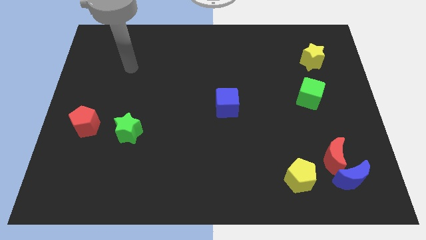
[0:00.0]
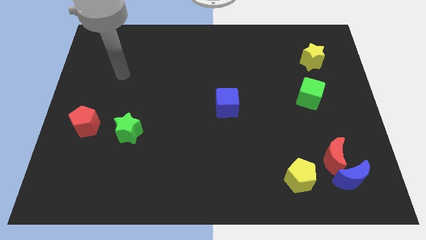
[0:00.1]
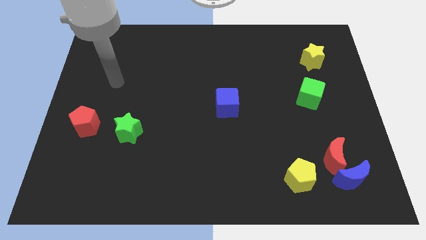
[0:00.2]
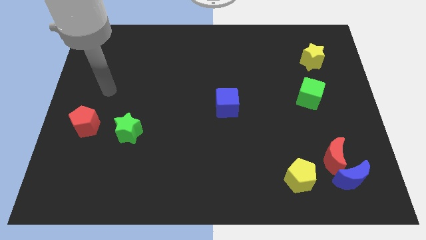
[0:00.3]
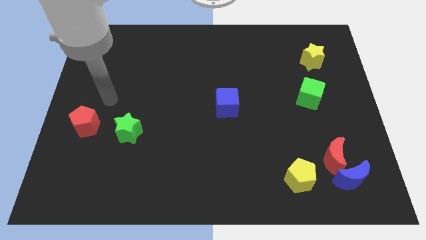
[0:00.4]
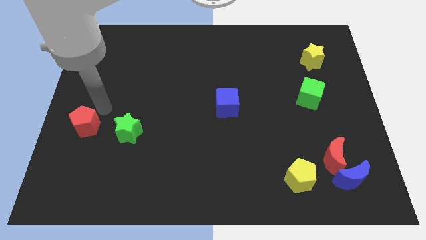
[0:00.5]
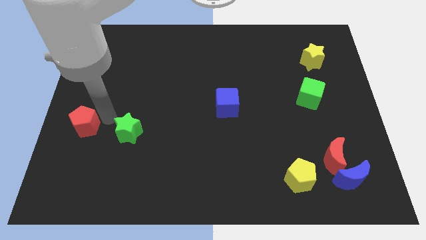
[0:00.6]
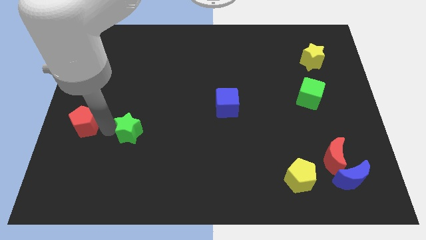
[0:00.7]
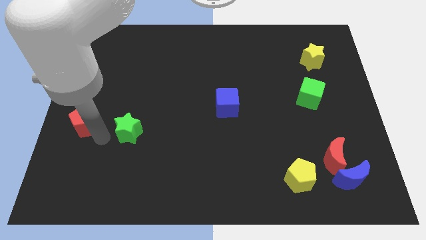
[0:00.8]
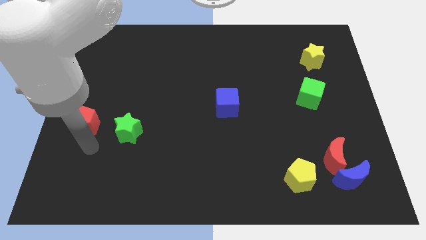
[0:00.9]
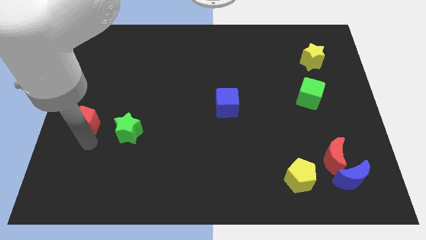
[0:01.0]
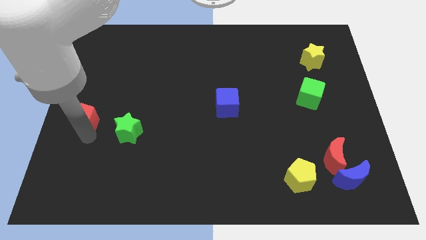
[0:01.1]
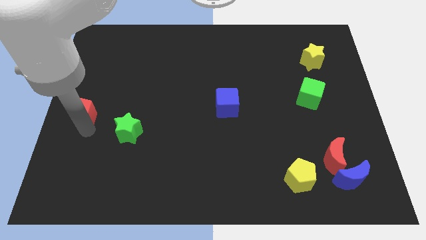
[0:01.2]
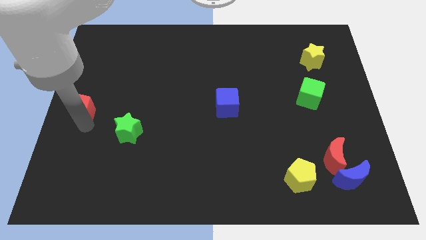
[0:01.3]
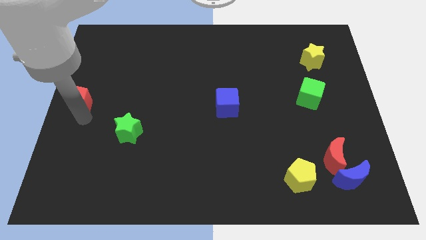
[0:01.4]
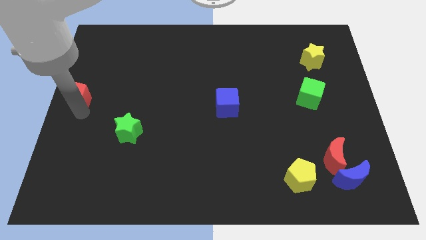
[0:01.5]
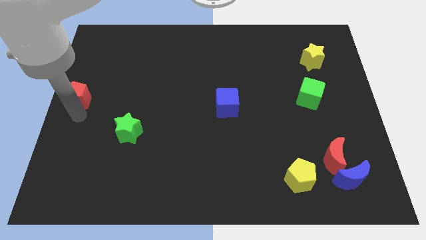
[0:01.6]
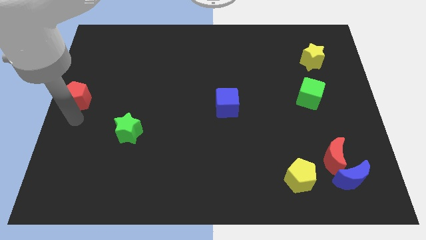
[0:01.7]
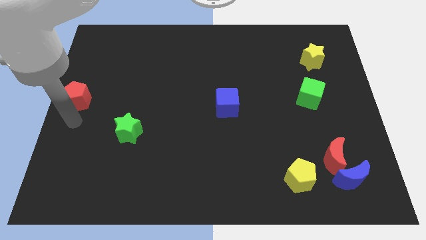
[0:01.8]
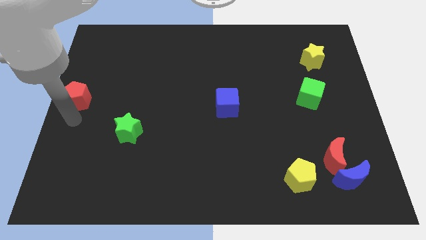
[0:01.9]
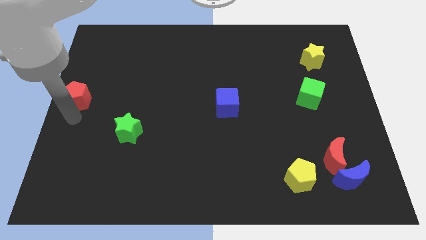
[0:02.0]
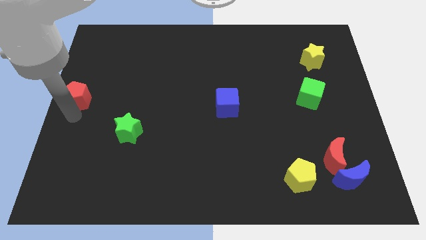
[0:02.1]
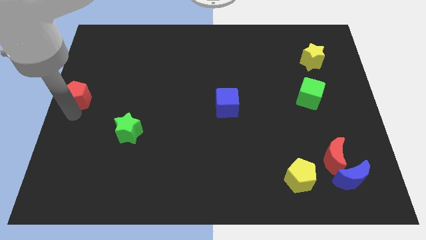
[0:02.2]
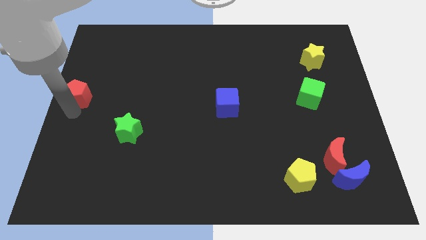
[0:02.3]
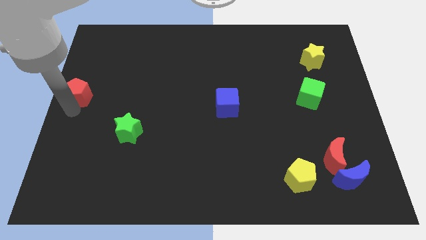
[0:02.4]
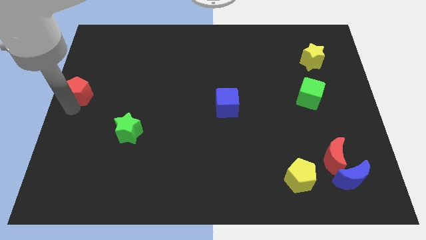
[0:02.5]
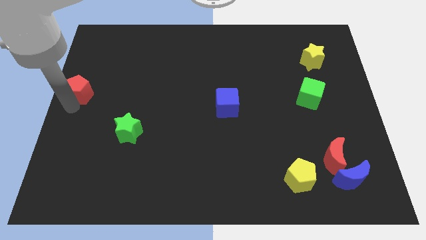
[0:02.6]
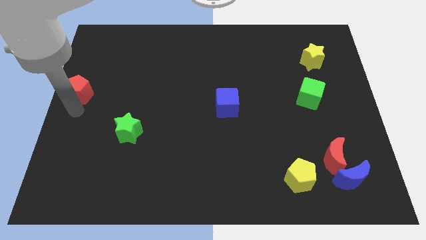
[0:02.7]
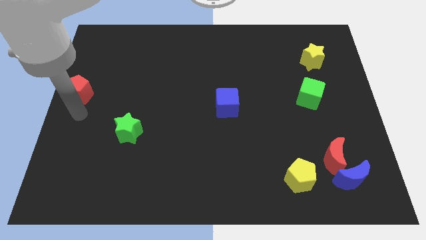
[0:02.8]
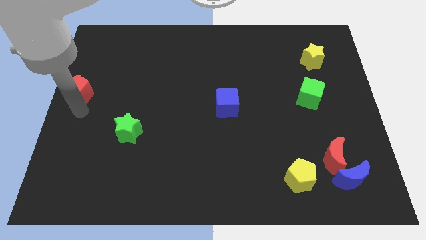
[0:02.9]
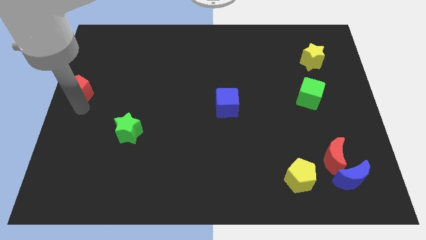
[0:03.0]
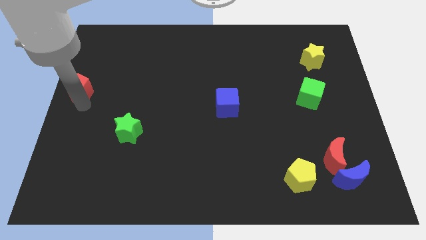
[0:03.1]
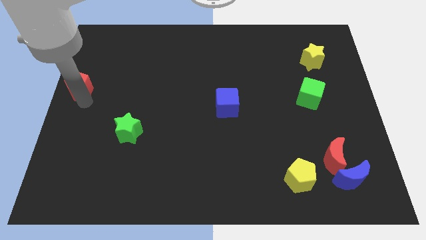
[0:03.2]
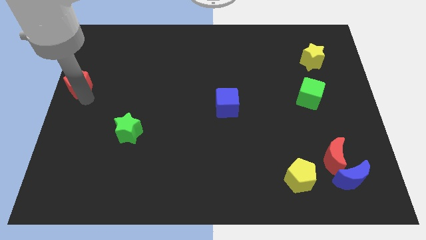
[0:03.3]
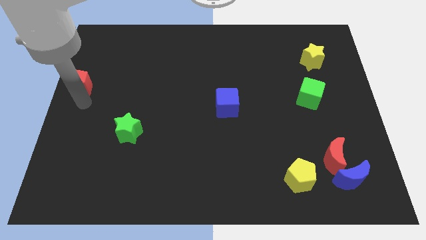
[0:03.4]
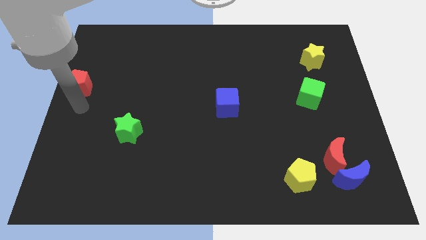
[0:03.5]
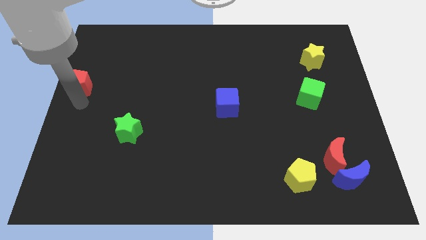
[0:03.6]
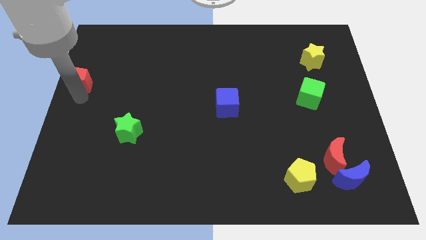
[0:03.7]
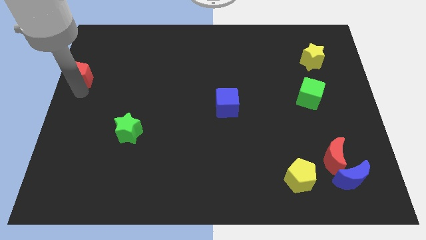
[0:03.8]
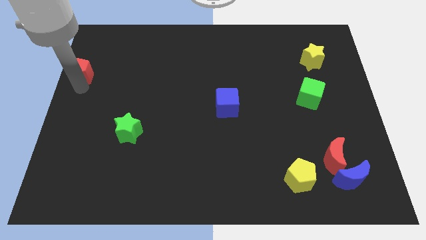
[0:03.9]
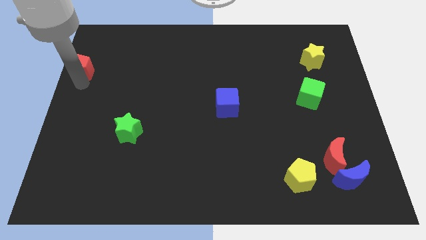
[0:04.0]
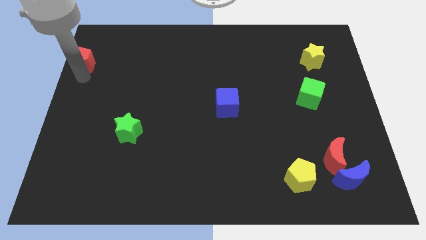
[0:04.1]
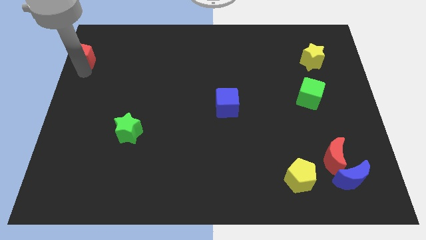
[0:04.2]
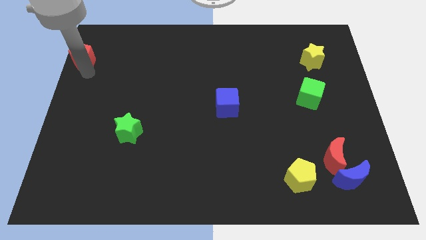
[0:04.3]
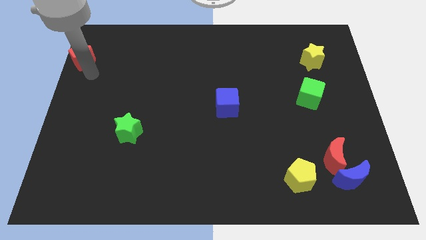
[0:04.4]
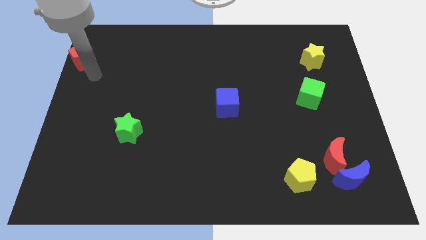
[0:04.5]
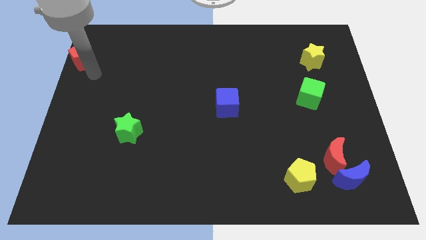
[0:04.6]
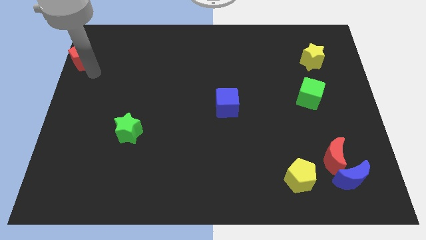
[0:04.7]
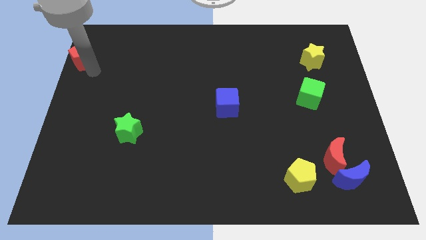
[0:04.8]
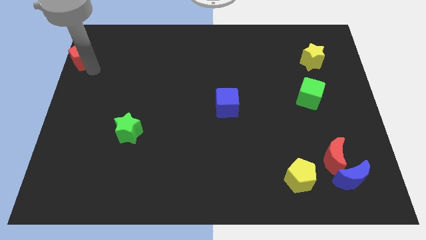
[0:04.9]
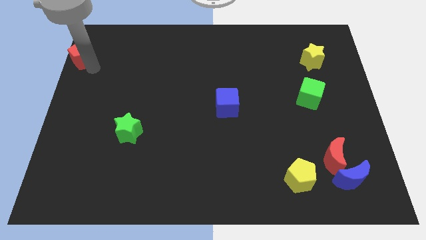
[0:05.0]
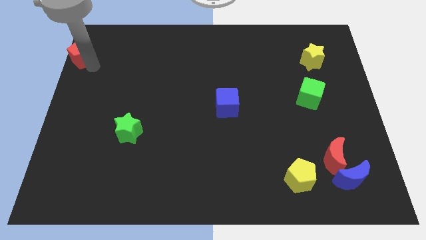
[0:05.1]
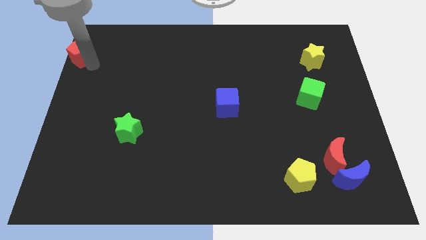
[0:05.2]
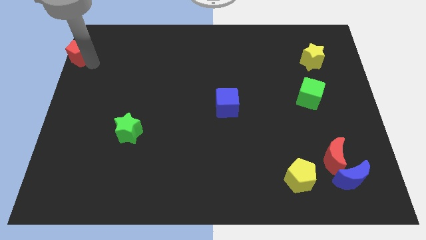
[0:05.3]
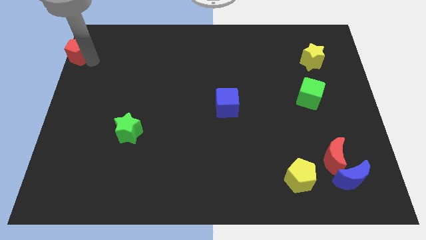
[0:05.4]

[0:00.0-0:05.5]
move the red pentagon to the top left

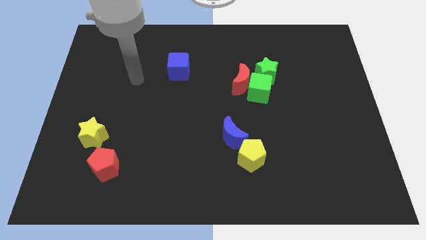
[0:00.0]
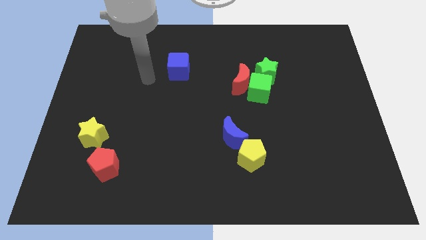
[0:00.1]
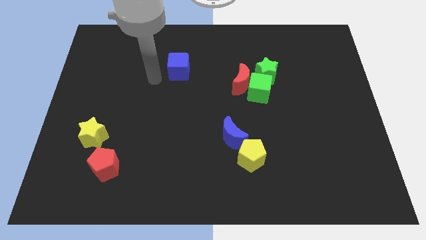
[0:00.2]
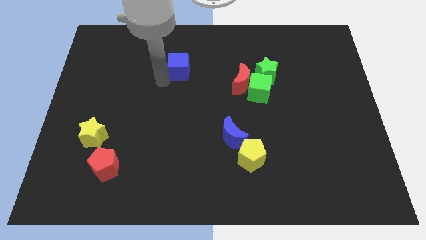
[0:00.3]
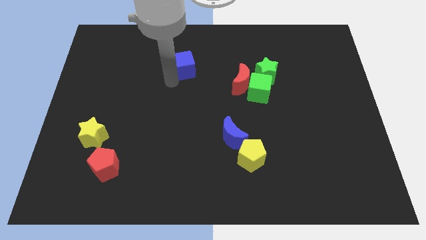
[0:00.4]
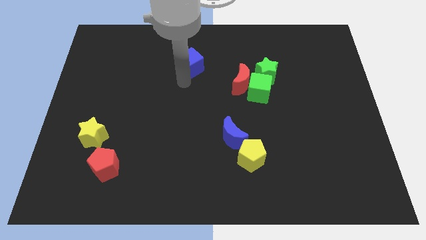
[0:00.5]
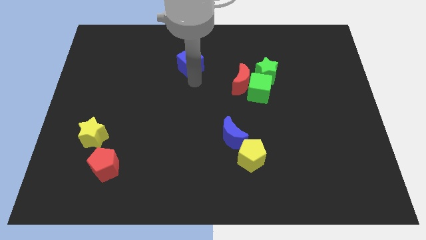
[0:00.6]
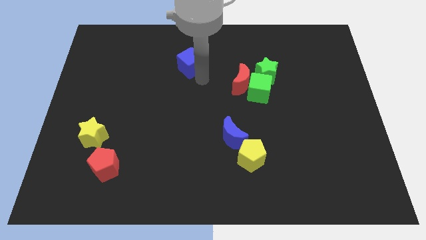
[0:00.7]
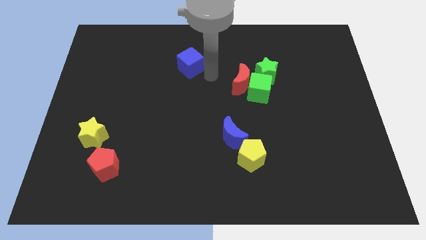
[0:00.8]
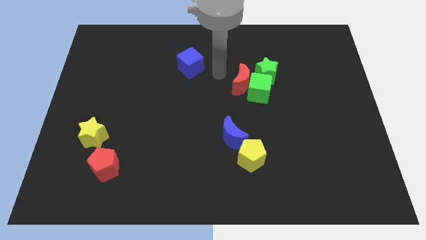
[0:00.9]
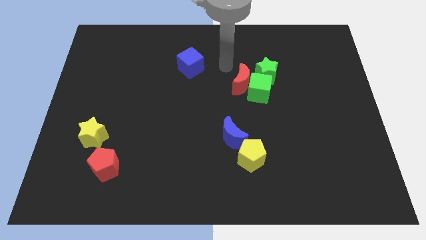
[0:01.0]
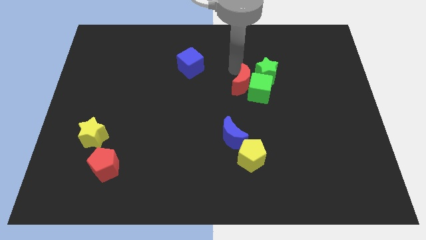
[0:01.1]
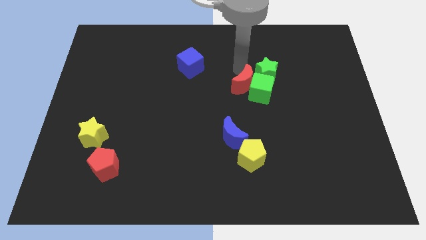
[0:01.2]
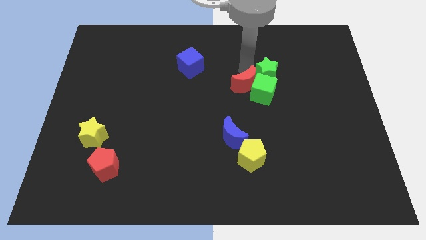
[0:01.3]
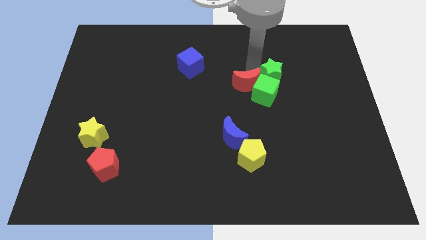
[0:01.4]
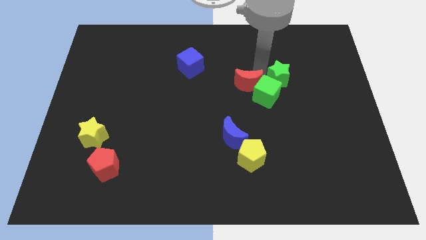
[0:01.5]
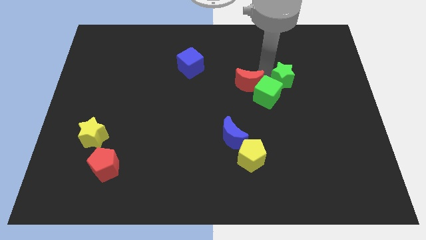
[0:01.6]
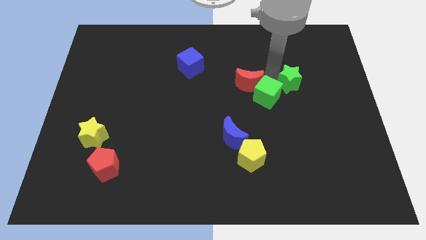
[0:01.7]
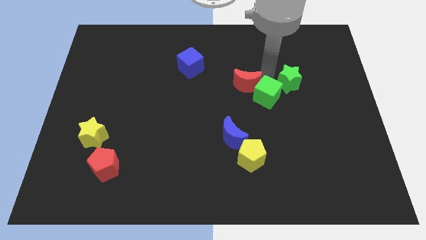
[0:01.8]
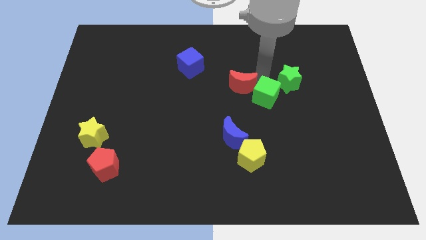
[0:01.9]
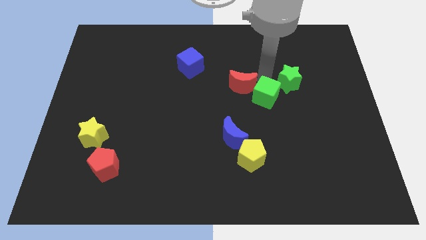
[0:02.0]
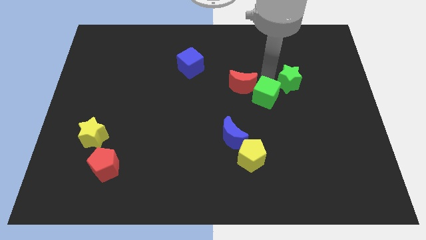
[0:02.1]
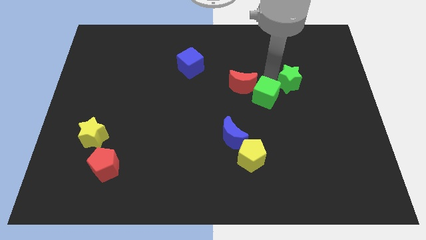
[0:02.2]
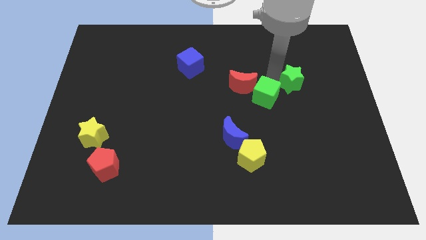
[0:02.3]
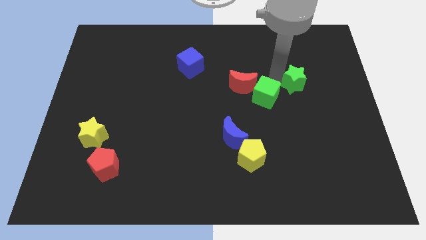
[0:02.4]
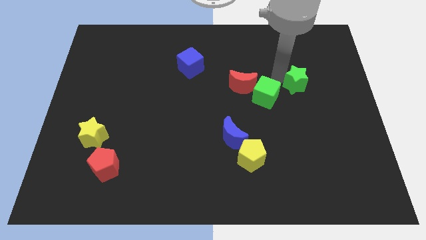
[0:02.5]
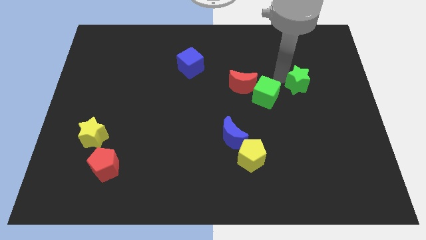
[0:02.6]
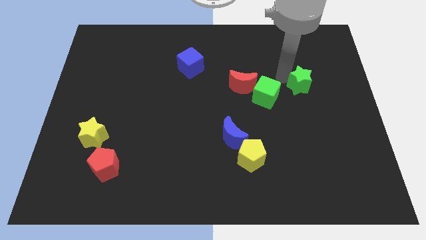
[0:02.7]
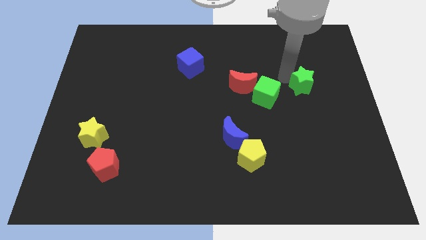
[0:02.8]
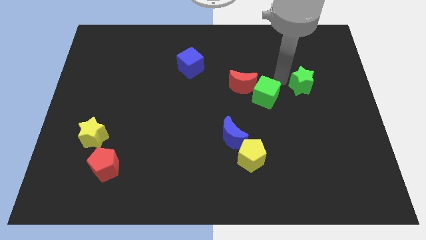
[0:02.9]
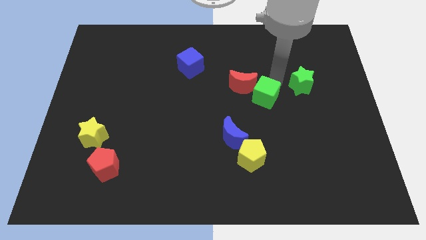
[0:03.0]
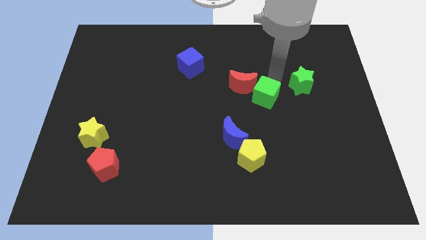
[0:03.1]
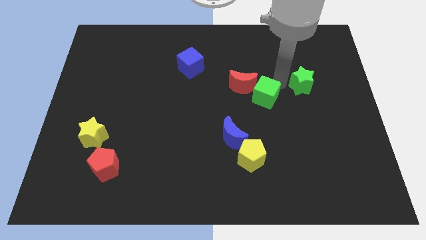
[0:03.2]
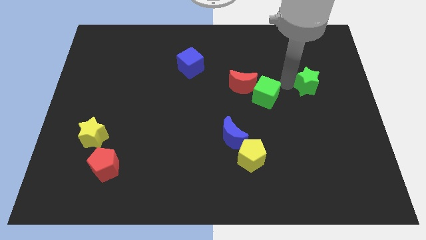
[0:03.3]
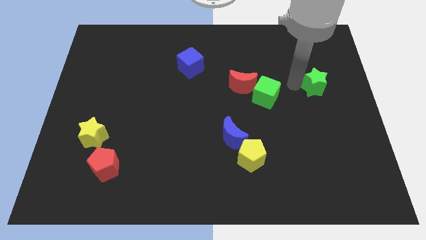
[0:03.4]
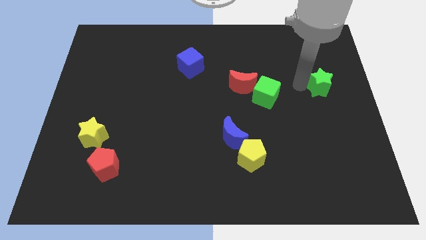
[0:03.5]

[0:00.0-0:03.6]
slide the green star to the right side
